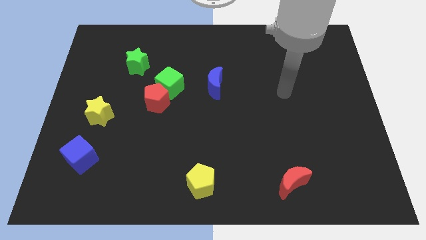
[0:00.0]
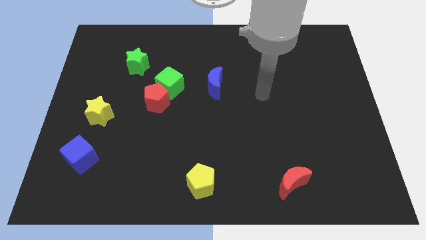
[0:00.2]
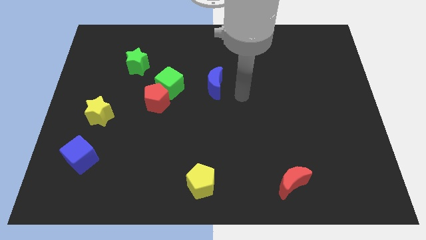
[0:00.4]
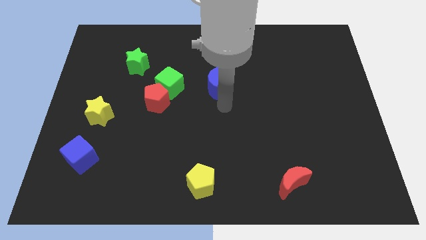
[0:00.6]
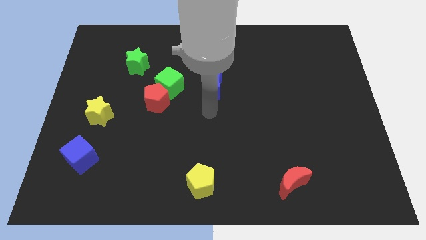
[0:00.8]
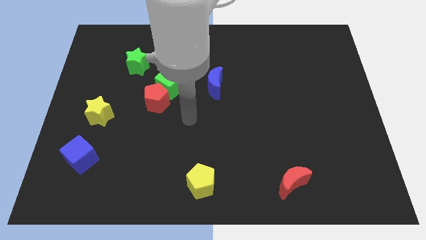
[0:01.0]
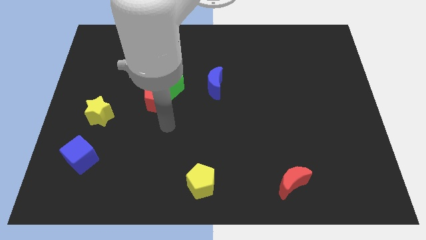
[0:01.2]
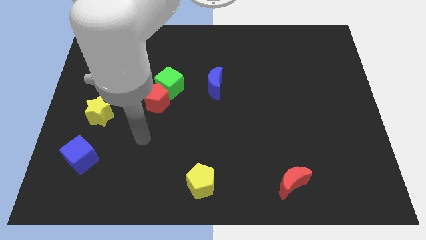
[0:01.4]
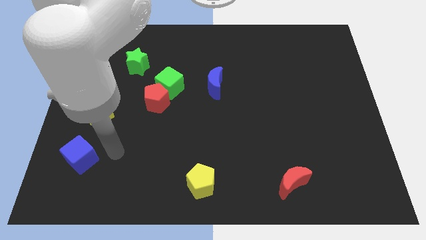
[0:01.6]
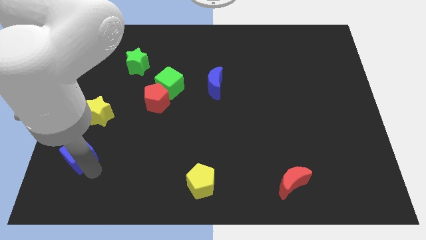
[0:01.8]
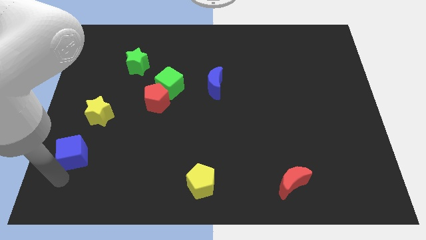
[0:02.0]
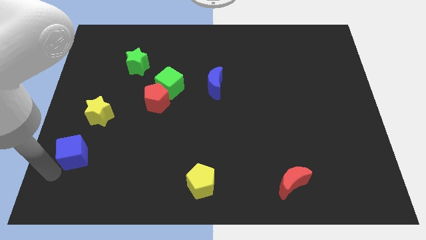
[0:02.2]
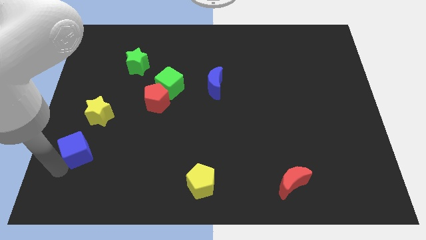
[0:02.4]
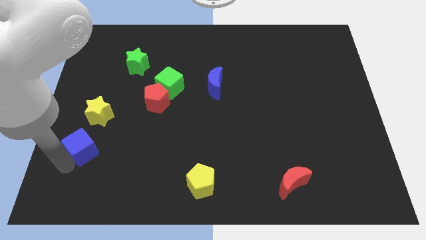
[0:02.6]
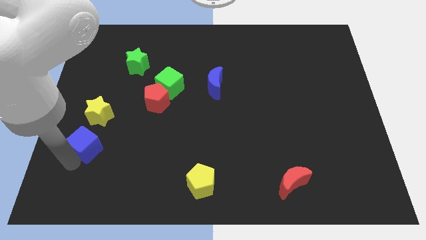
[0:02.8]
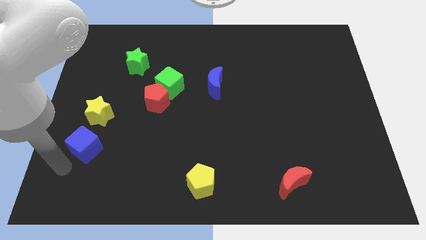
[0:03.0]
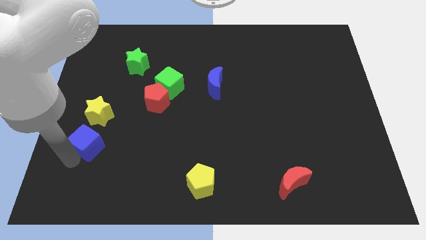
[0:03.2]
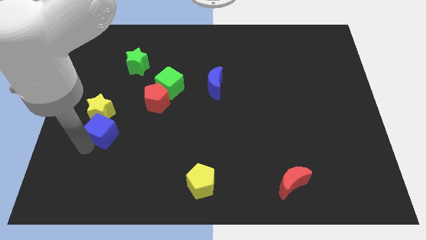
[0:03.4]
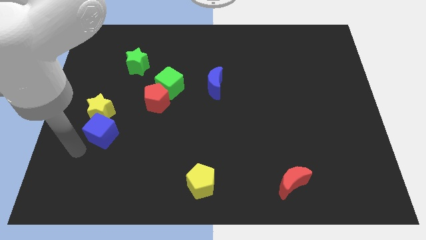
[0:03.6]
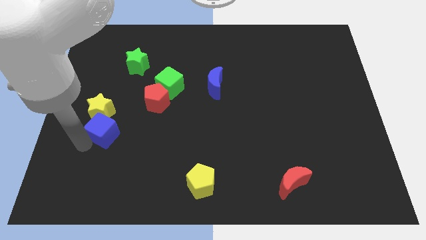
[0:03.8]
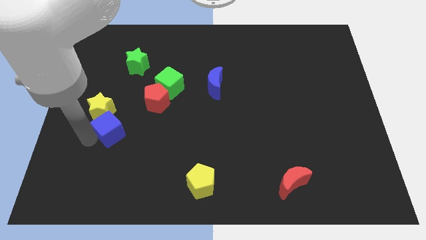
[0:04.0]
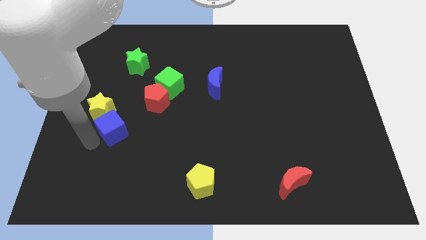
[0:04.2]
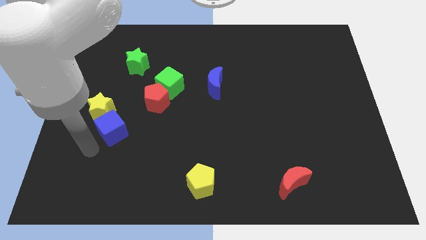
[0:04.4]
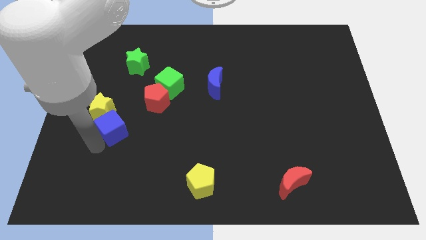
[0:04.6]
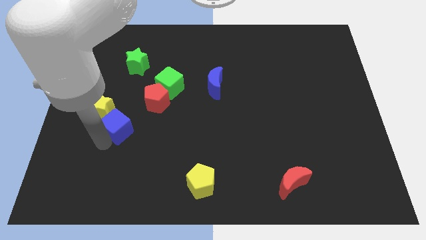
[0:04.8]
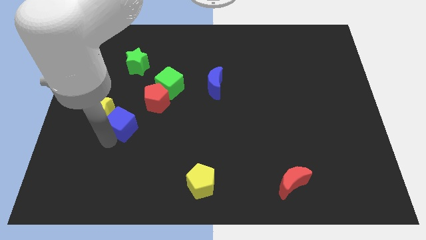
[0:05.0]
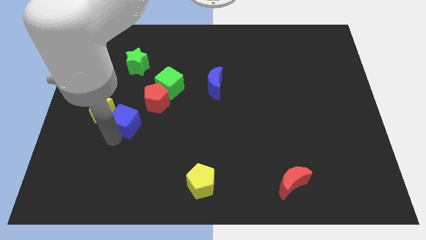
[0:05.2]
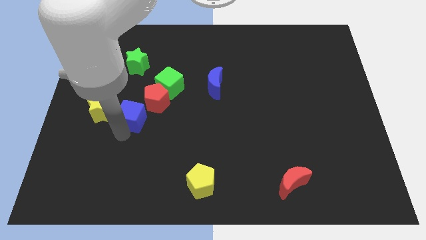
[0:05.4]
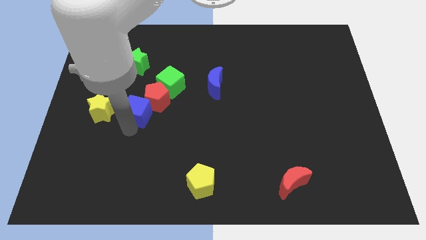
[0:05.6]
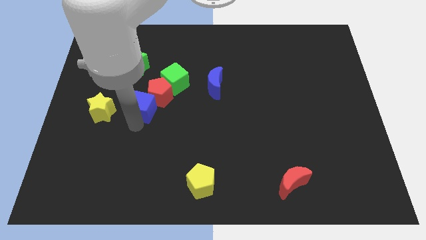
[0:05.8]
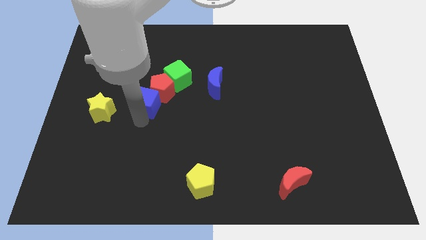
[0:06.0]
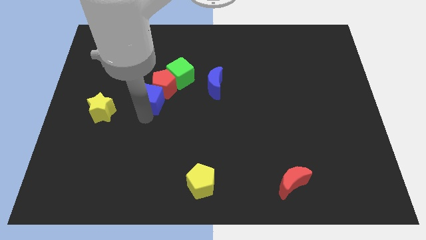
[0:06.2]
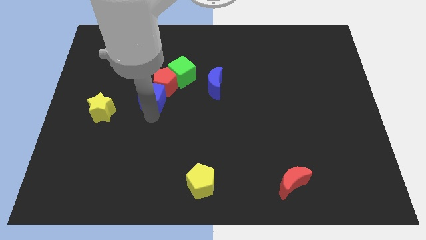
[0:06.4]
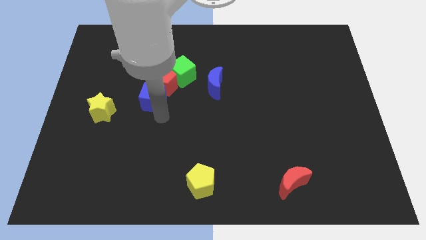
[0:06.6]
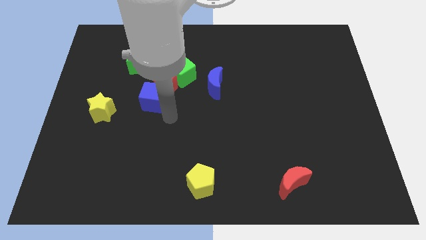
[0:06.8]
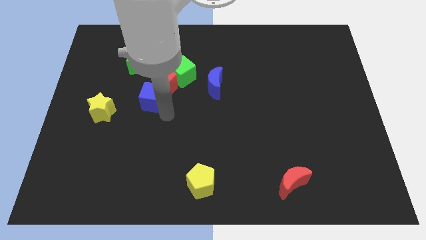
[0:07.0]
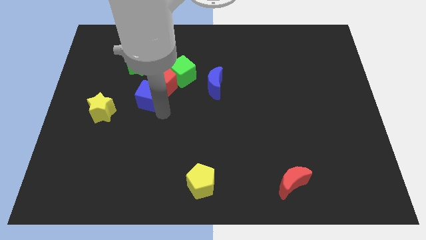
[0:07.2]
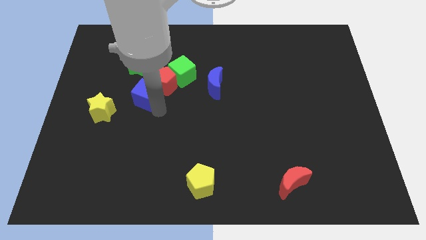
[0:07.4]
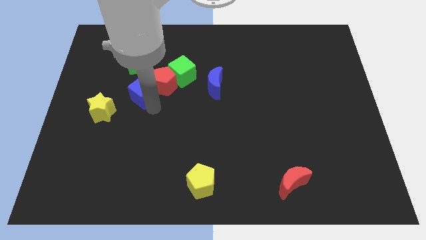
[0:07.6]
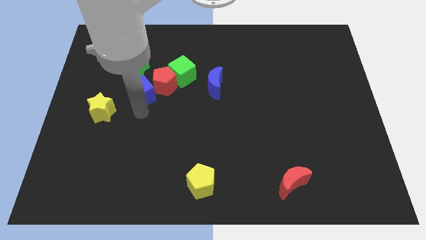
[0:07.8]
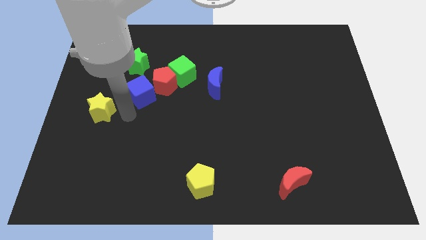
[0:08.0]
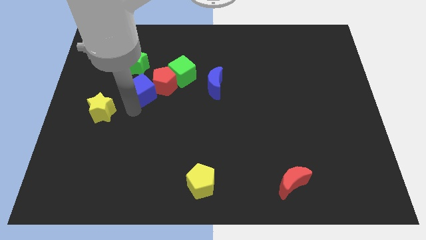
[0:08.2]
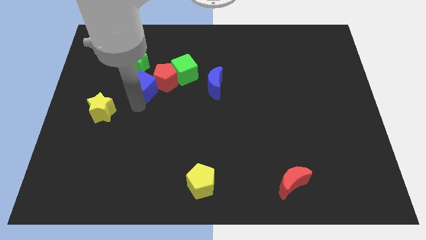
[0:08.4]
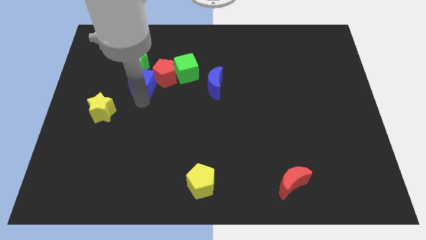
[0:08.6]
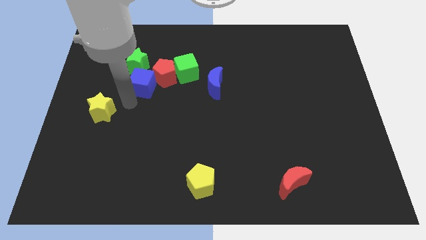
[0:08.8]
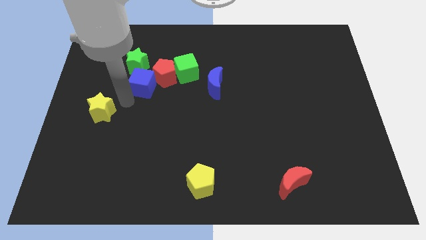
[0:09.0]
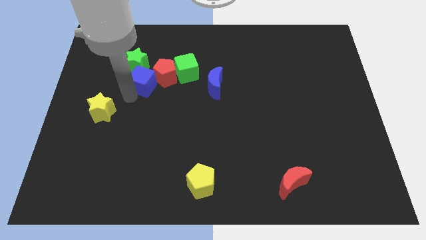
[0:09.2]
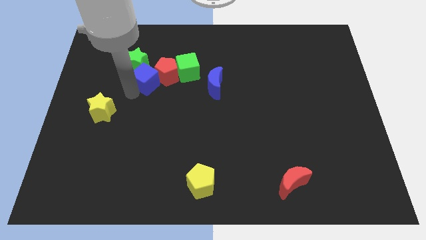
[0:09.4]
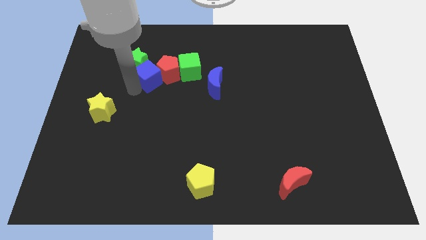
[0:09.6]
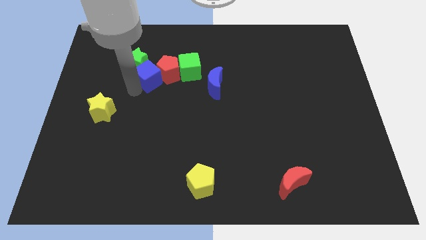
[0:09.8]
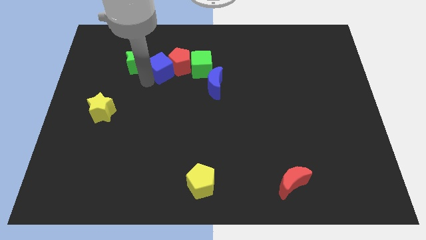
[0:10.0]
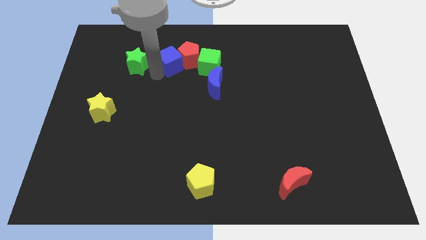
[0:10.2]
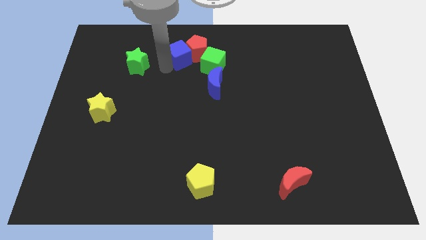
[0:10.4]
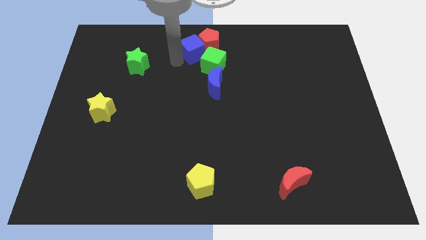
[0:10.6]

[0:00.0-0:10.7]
push the blue cube to the towards your base

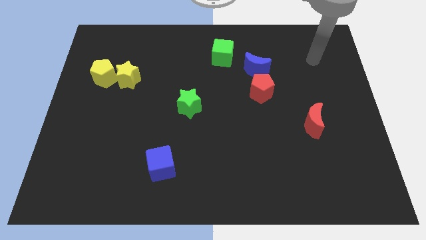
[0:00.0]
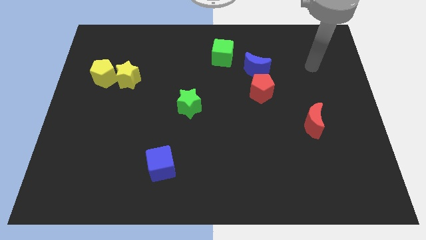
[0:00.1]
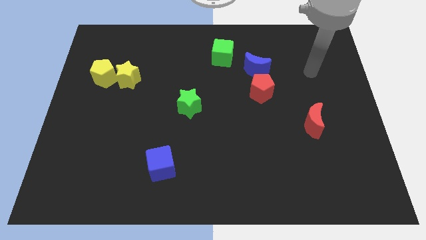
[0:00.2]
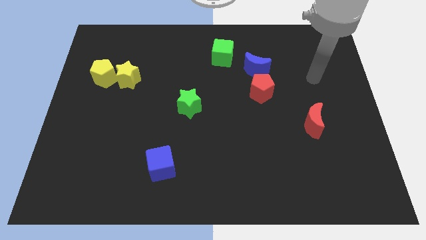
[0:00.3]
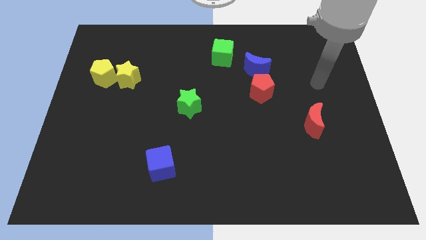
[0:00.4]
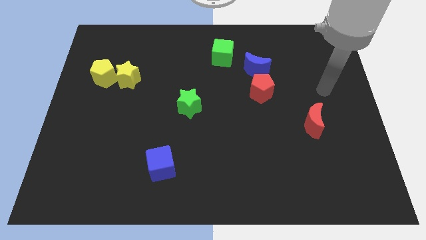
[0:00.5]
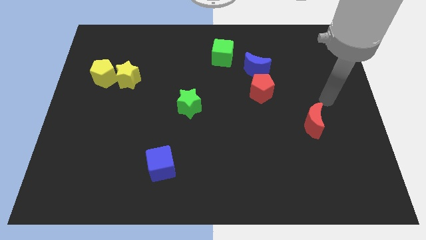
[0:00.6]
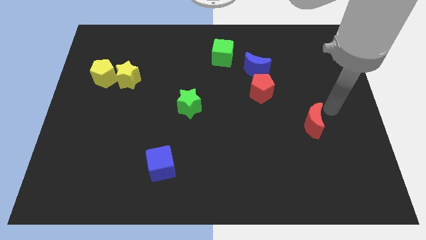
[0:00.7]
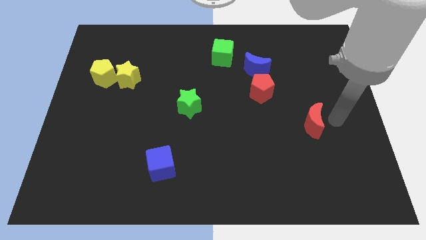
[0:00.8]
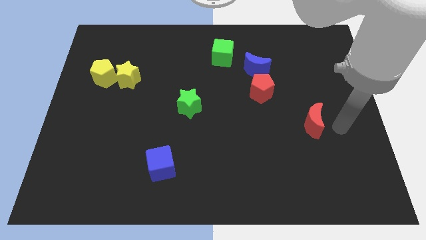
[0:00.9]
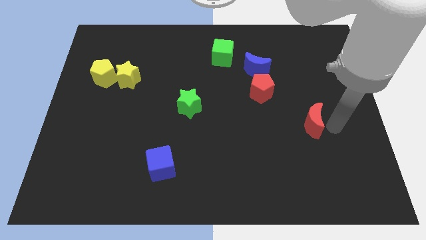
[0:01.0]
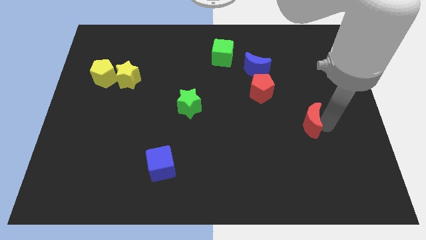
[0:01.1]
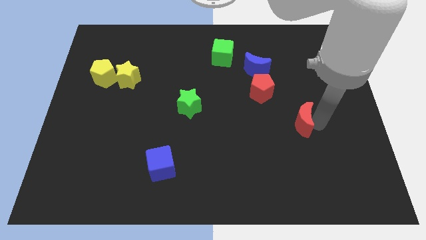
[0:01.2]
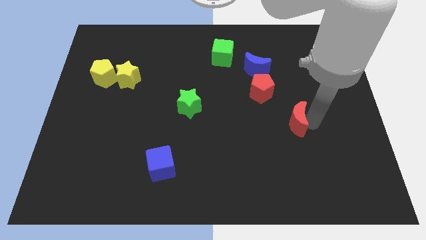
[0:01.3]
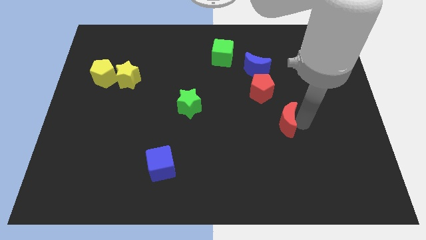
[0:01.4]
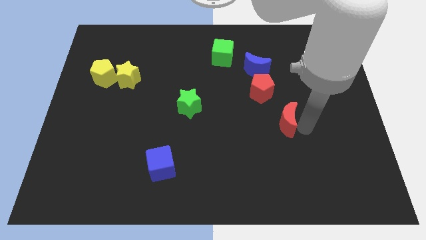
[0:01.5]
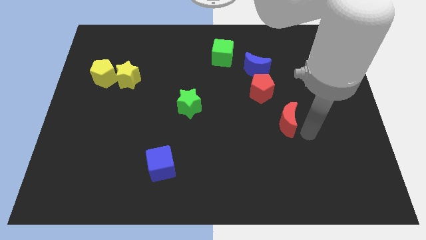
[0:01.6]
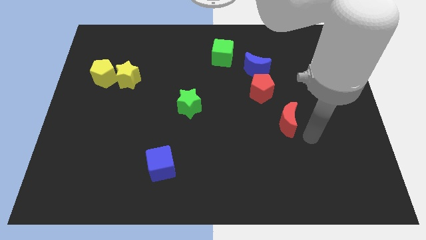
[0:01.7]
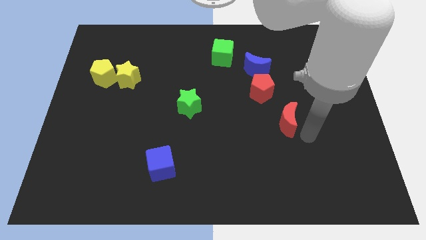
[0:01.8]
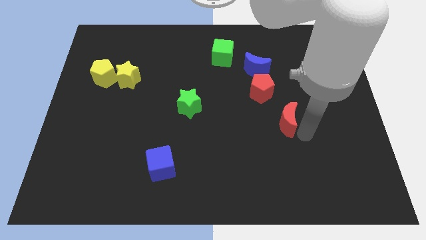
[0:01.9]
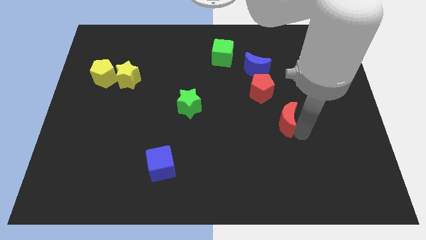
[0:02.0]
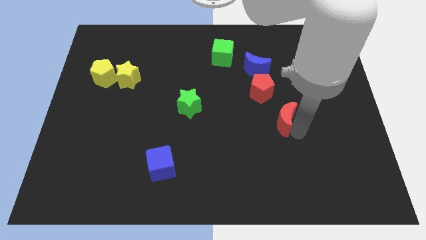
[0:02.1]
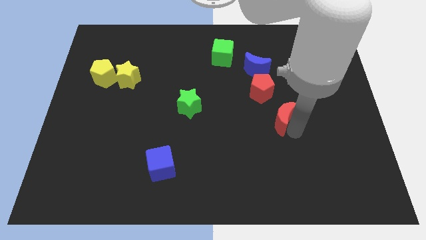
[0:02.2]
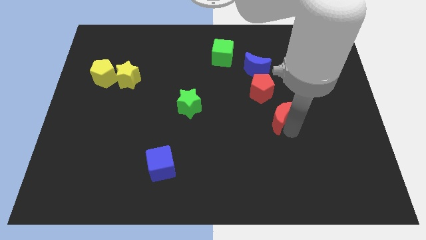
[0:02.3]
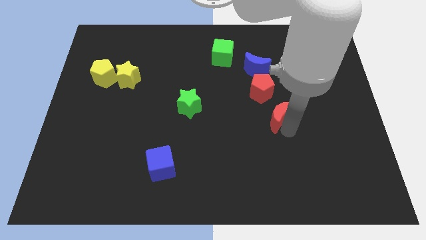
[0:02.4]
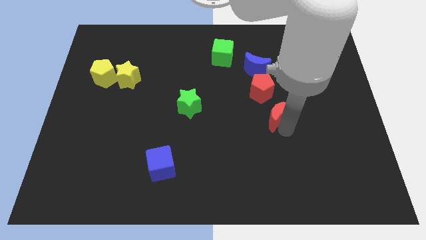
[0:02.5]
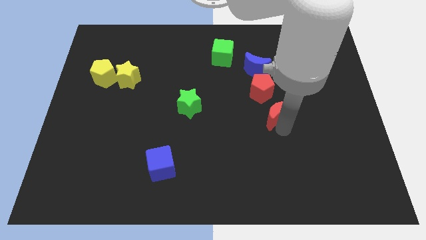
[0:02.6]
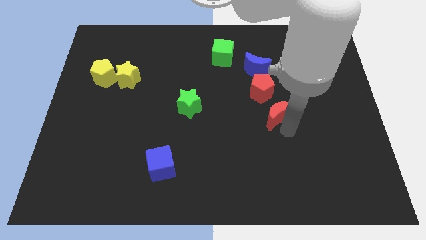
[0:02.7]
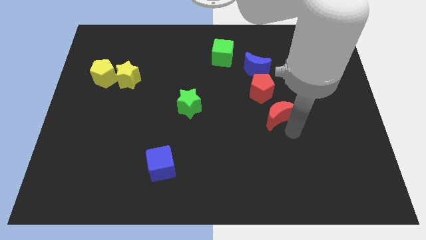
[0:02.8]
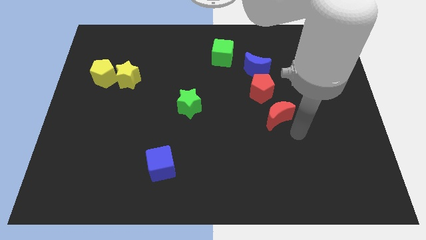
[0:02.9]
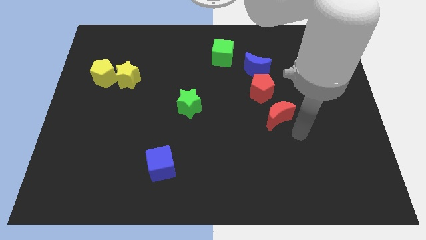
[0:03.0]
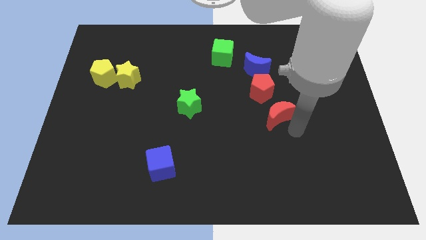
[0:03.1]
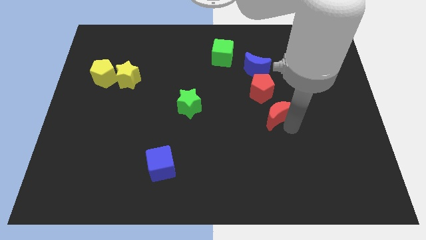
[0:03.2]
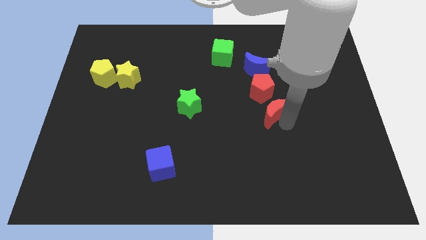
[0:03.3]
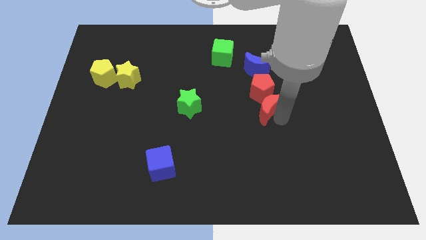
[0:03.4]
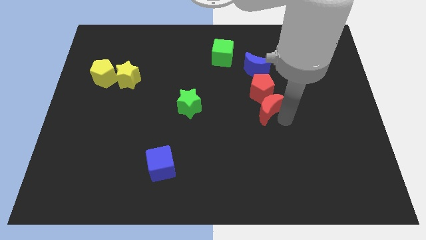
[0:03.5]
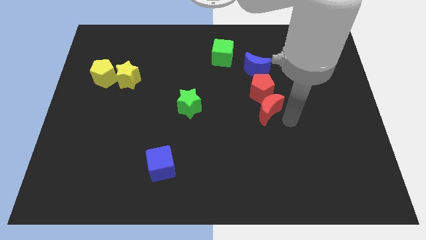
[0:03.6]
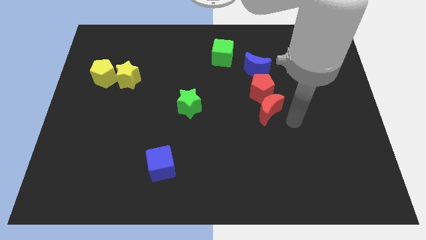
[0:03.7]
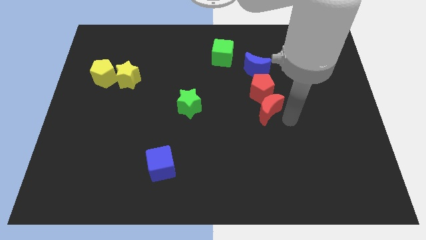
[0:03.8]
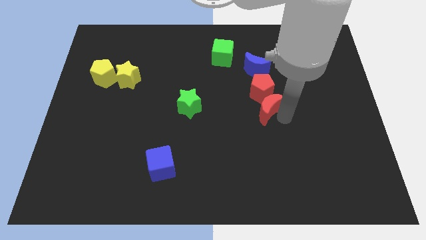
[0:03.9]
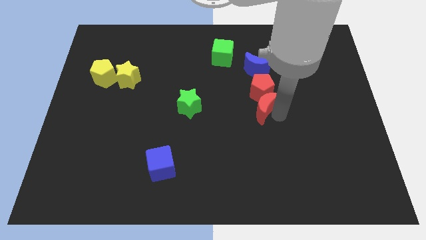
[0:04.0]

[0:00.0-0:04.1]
push the red moon to the center of the board
